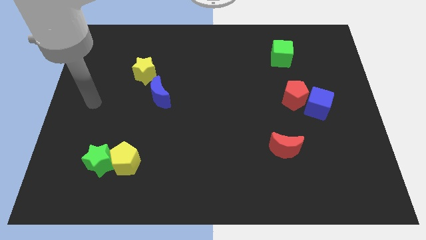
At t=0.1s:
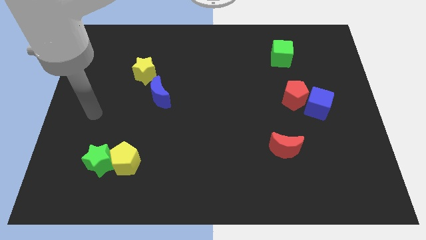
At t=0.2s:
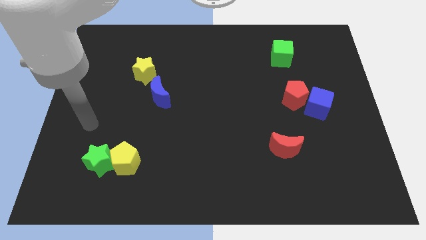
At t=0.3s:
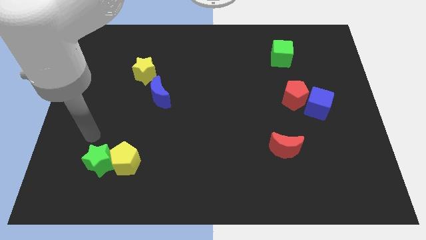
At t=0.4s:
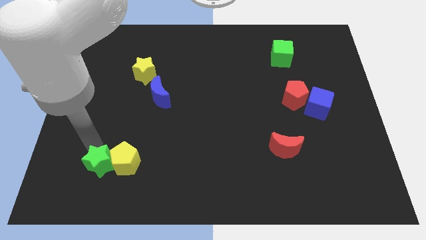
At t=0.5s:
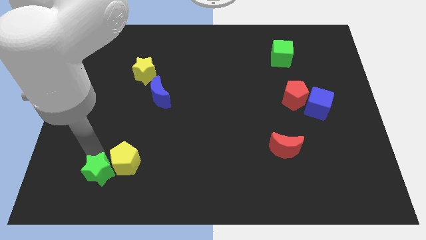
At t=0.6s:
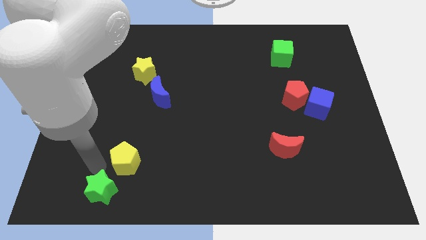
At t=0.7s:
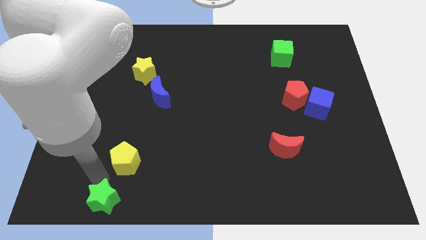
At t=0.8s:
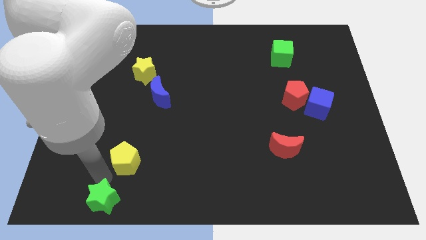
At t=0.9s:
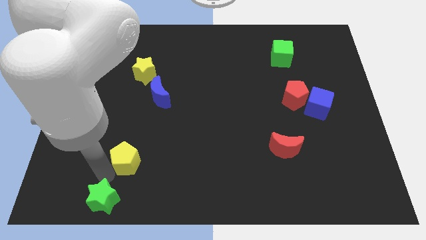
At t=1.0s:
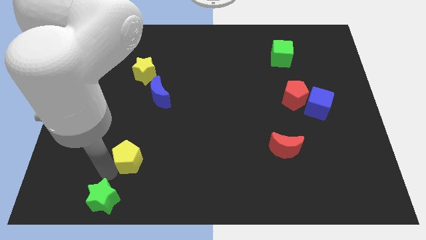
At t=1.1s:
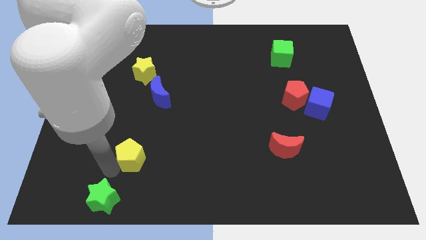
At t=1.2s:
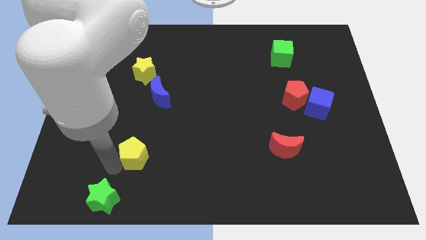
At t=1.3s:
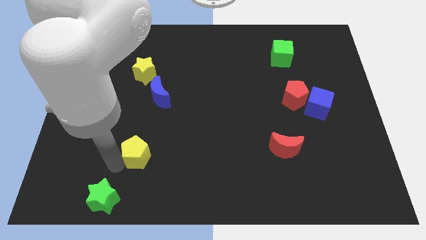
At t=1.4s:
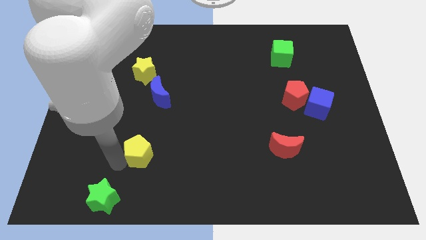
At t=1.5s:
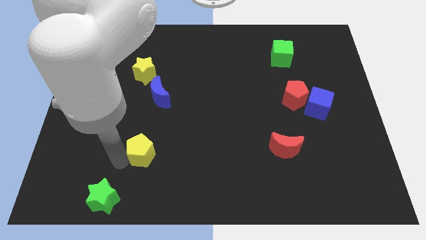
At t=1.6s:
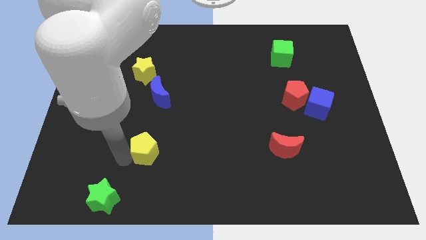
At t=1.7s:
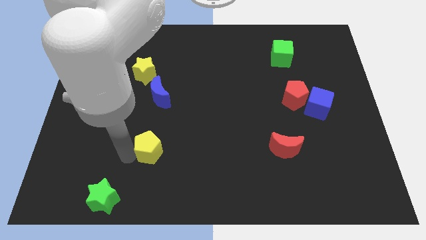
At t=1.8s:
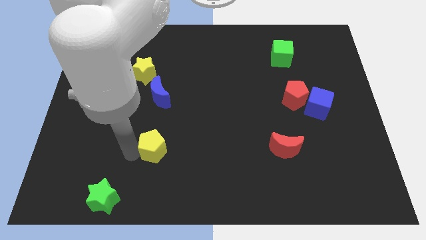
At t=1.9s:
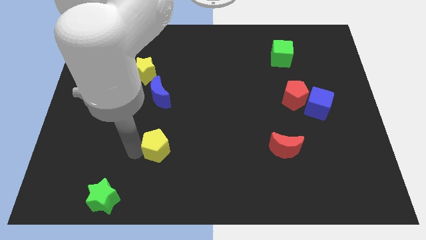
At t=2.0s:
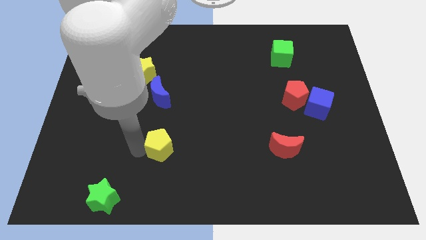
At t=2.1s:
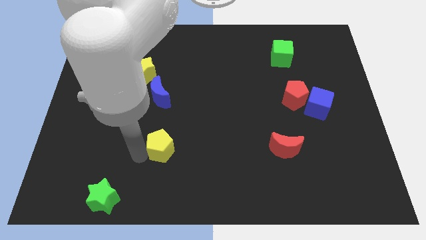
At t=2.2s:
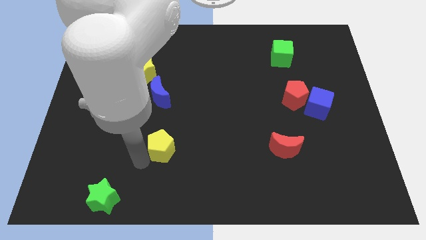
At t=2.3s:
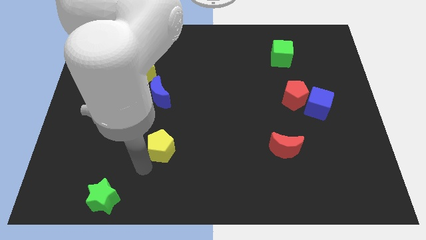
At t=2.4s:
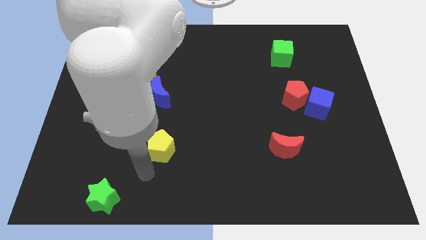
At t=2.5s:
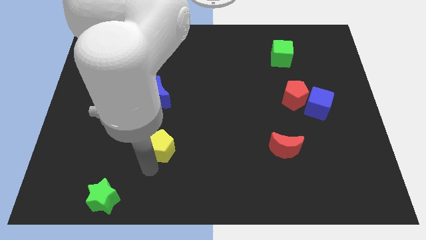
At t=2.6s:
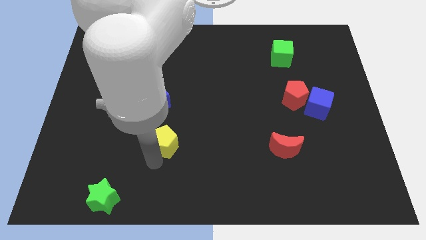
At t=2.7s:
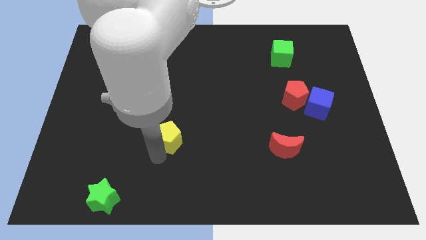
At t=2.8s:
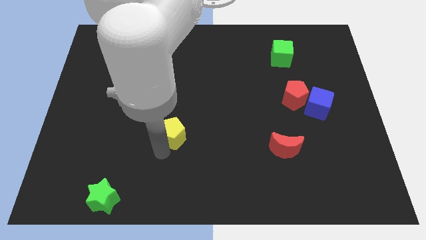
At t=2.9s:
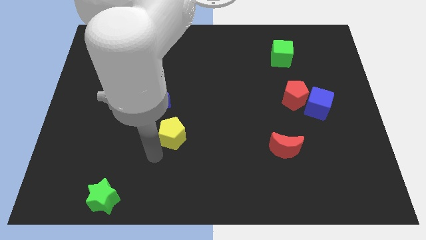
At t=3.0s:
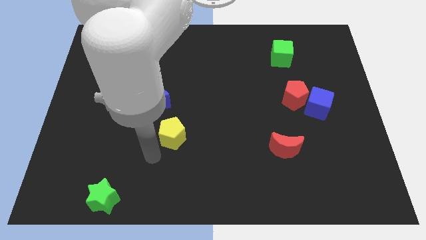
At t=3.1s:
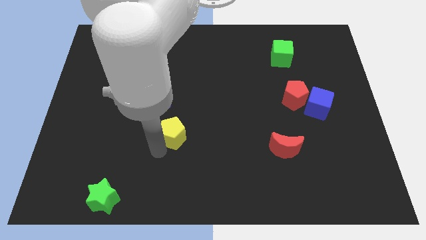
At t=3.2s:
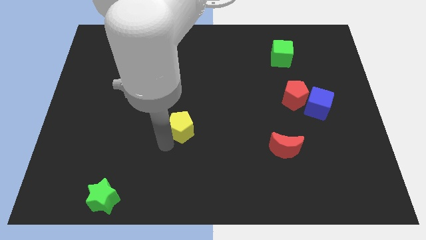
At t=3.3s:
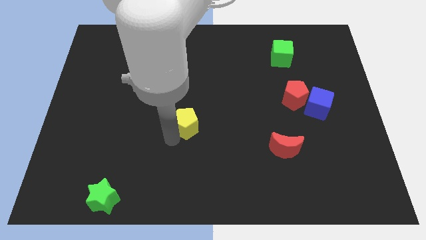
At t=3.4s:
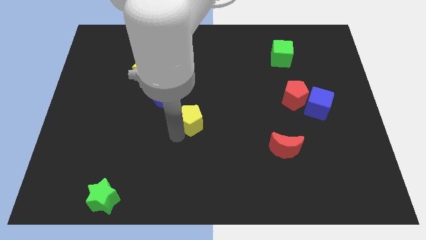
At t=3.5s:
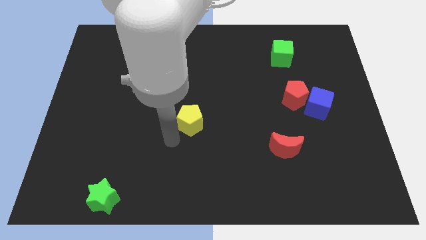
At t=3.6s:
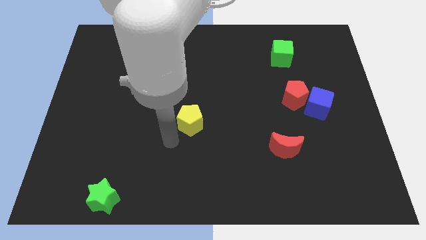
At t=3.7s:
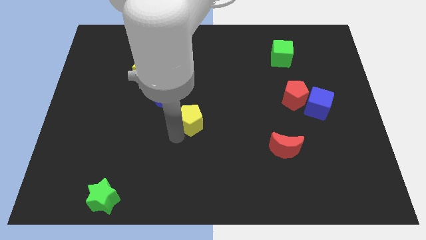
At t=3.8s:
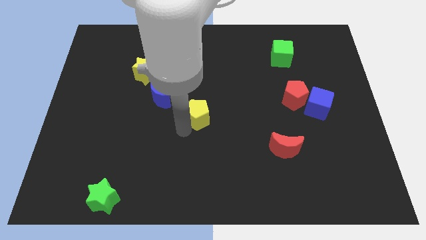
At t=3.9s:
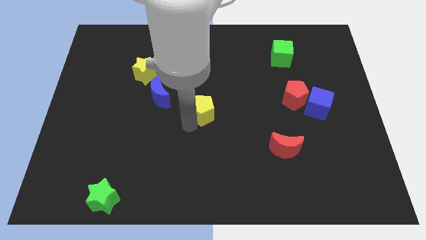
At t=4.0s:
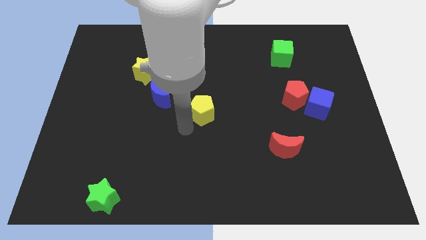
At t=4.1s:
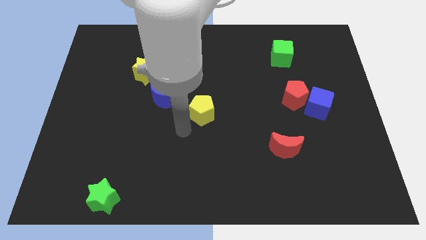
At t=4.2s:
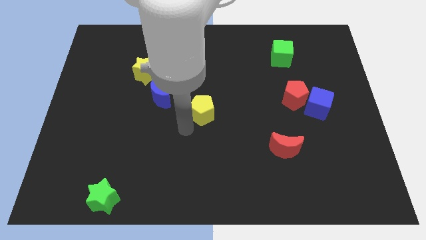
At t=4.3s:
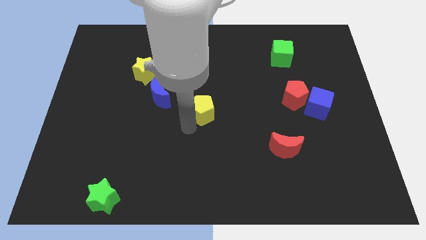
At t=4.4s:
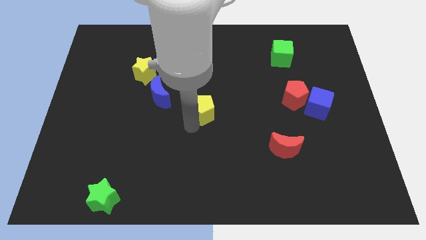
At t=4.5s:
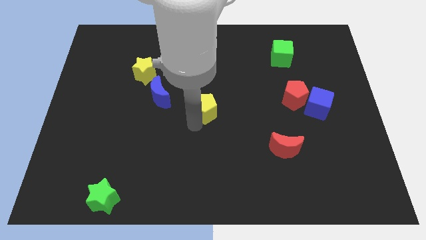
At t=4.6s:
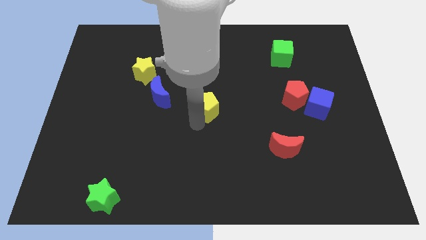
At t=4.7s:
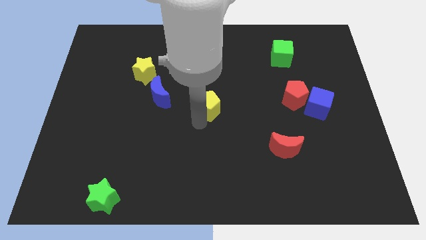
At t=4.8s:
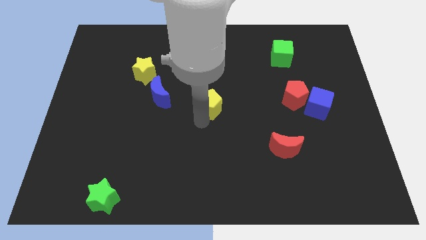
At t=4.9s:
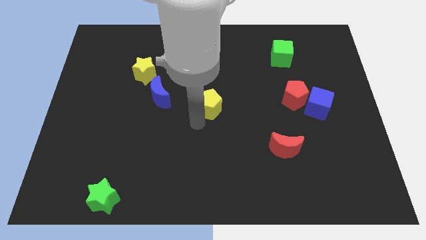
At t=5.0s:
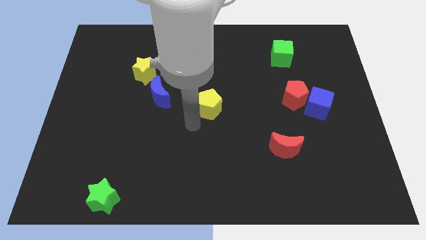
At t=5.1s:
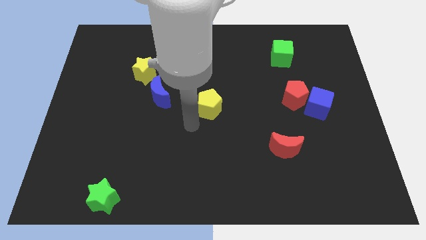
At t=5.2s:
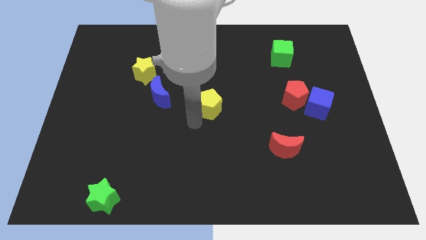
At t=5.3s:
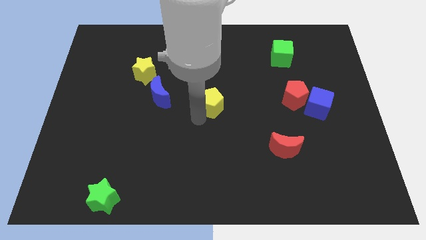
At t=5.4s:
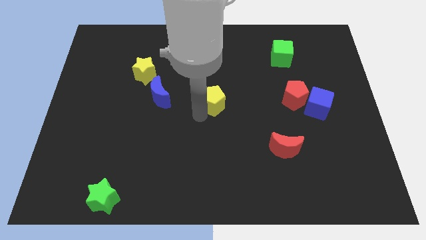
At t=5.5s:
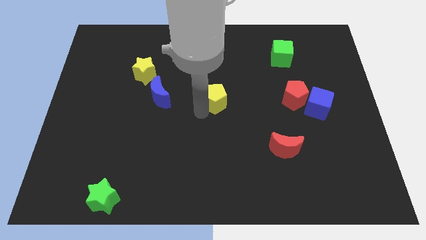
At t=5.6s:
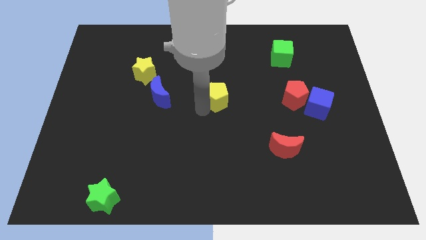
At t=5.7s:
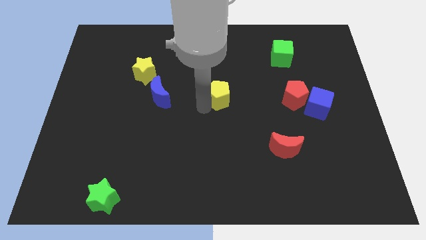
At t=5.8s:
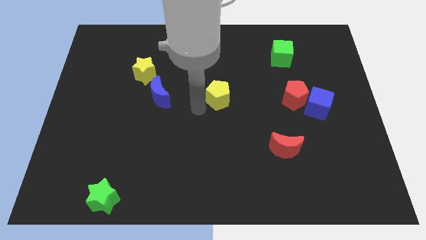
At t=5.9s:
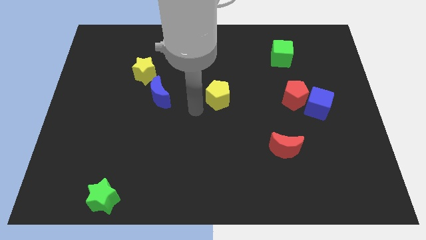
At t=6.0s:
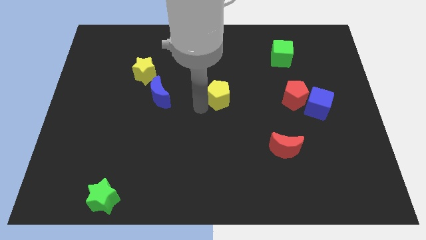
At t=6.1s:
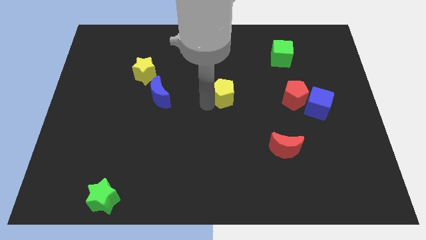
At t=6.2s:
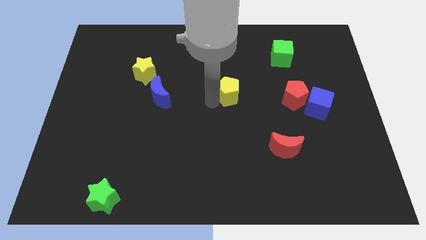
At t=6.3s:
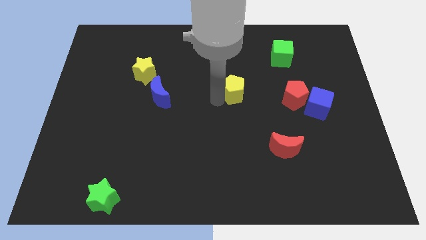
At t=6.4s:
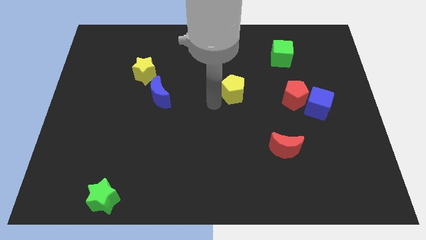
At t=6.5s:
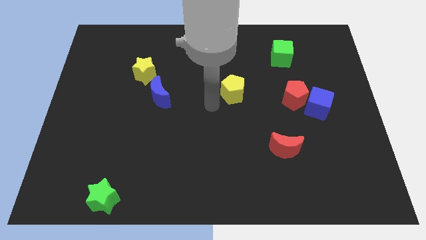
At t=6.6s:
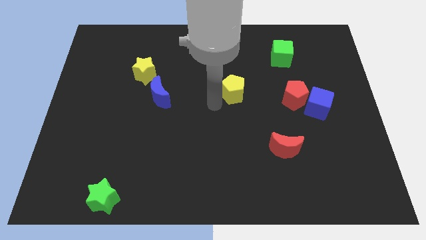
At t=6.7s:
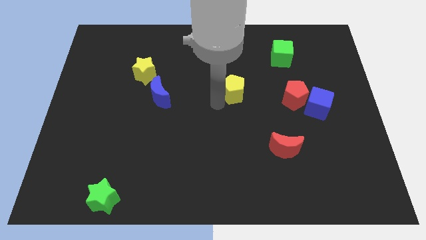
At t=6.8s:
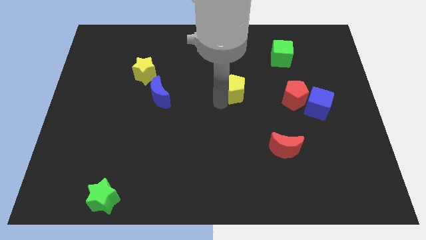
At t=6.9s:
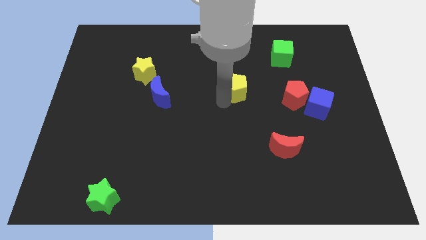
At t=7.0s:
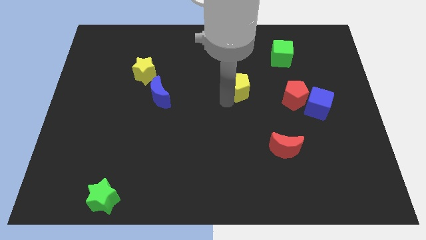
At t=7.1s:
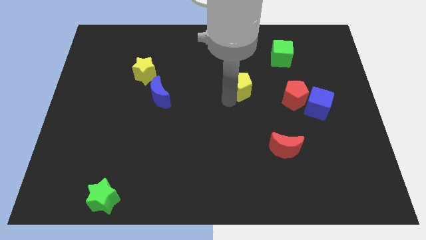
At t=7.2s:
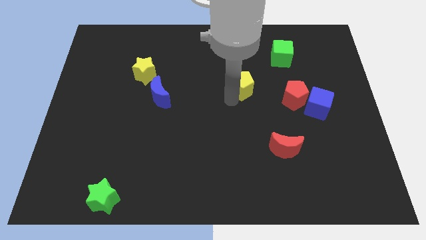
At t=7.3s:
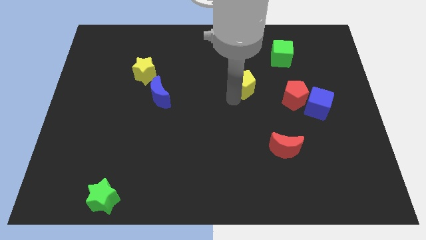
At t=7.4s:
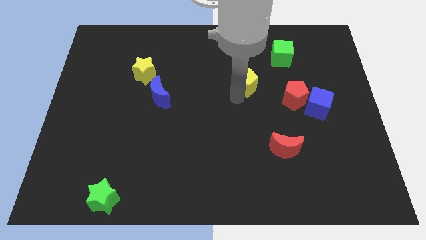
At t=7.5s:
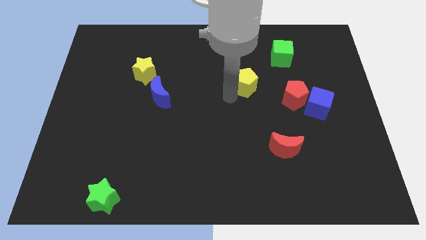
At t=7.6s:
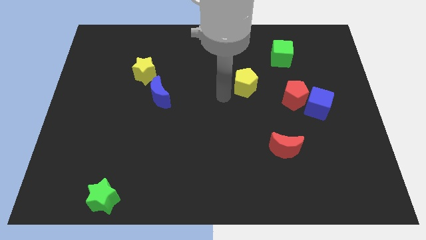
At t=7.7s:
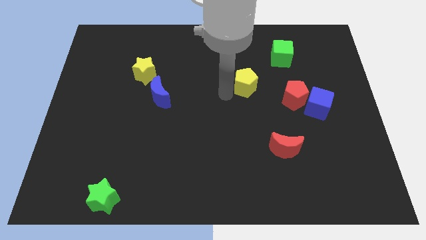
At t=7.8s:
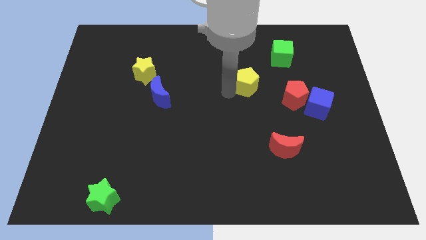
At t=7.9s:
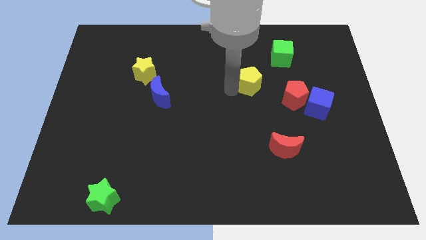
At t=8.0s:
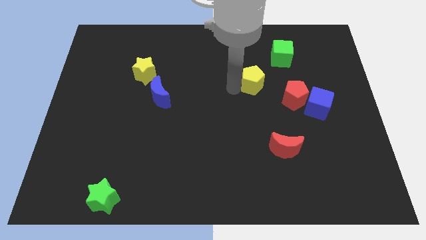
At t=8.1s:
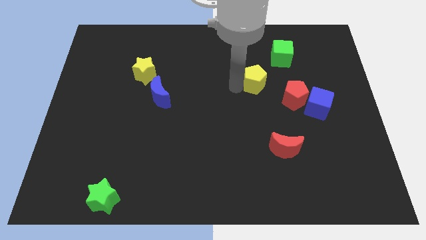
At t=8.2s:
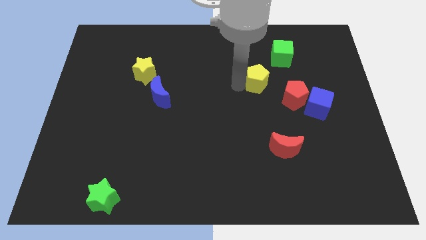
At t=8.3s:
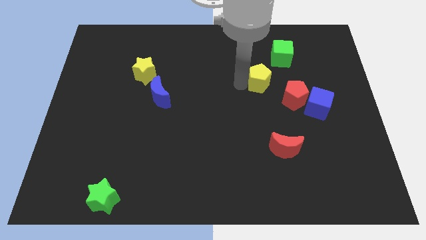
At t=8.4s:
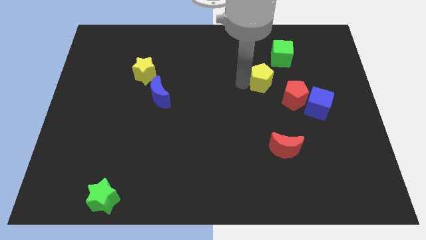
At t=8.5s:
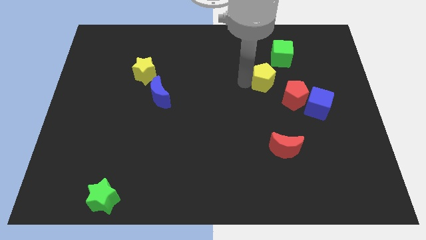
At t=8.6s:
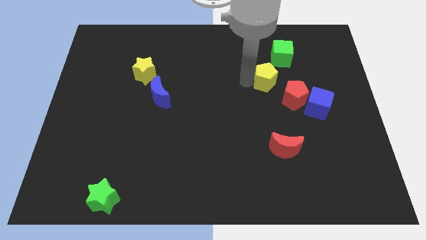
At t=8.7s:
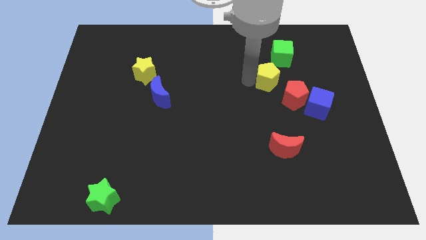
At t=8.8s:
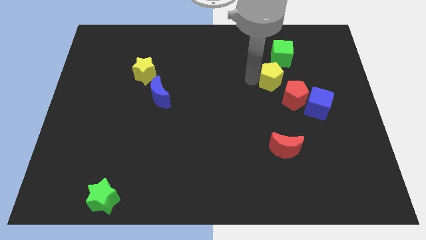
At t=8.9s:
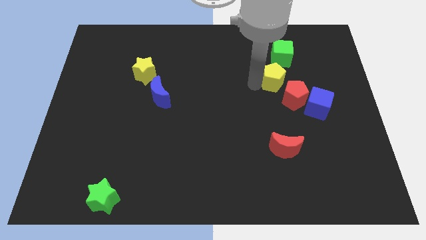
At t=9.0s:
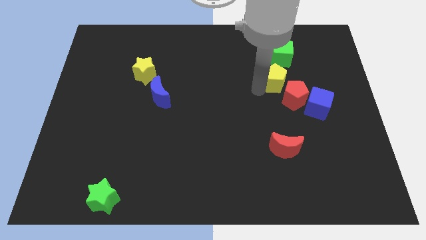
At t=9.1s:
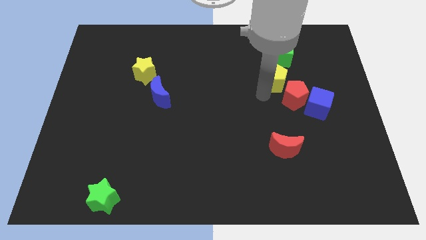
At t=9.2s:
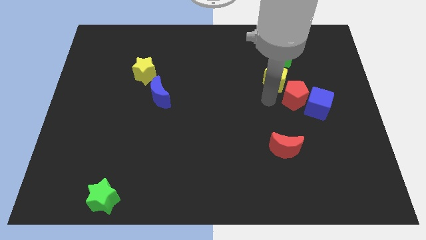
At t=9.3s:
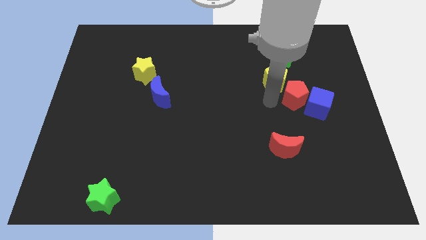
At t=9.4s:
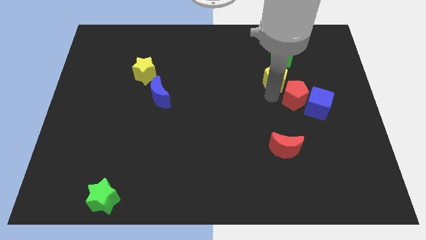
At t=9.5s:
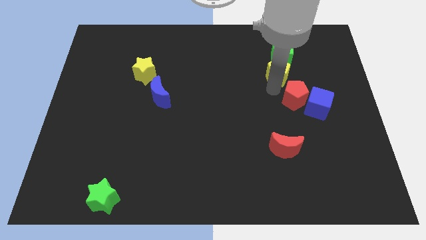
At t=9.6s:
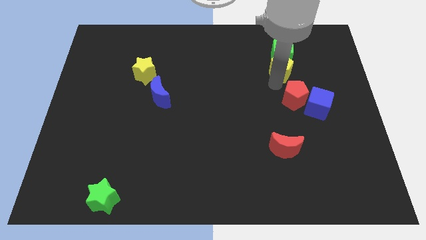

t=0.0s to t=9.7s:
put the yellow pentagon close to the green cube
